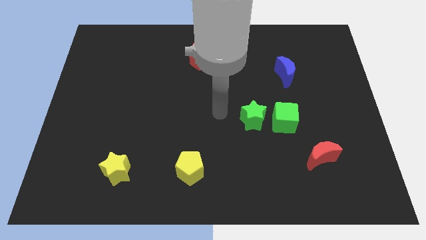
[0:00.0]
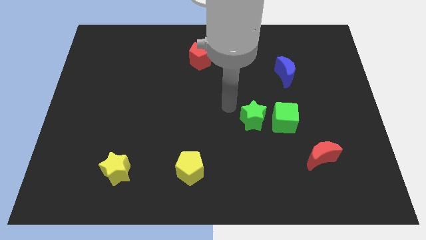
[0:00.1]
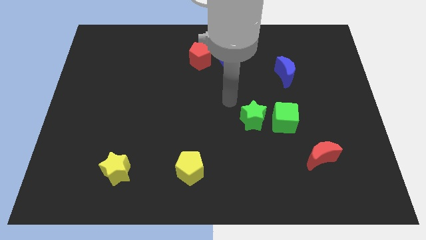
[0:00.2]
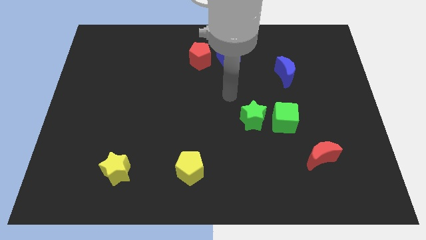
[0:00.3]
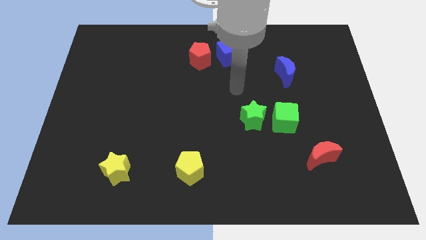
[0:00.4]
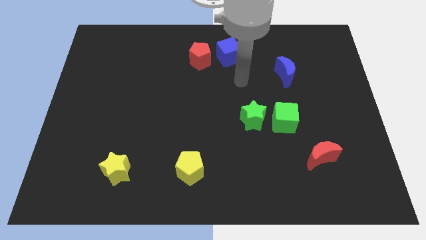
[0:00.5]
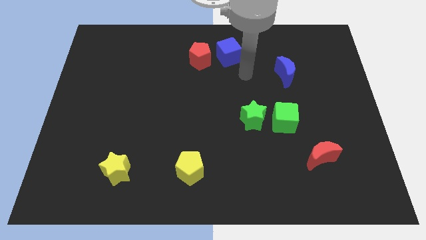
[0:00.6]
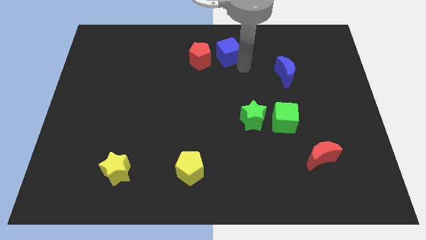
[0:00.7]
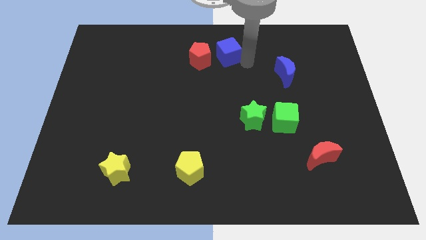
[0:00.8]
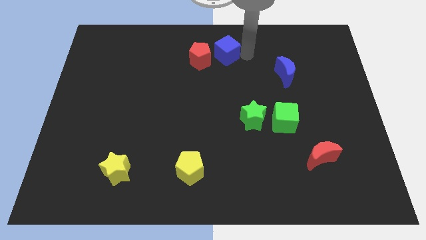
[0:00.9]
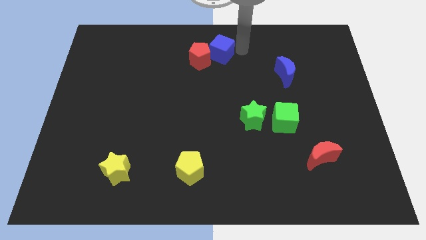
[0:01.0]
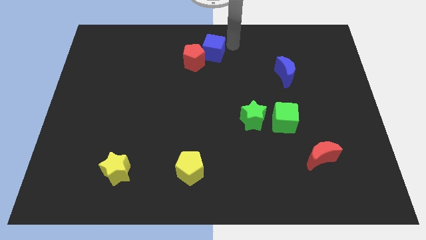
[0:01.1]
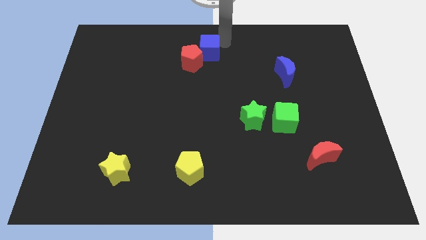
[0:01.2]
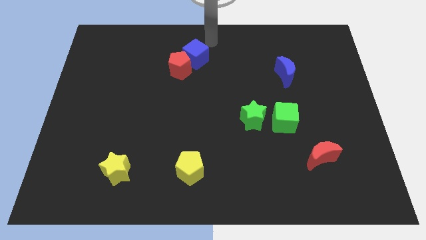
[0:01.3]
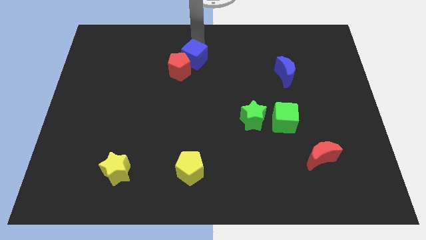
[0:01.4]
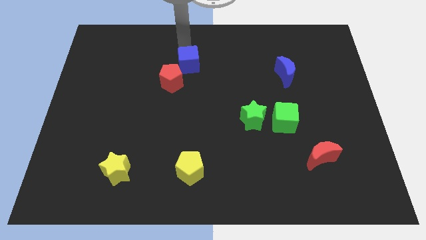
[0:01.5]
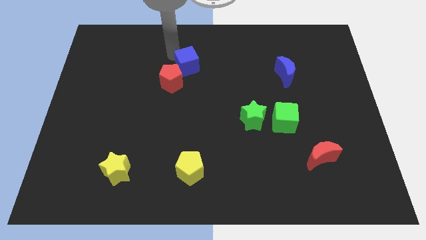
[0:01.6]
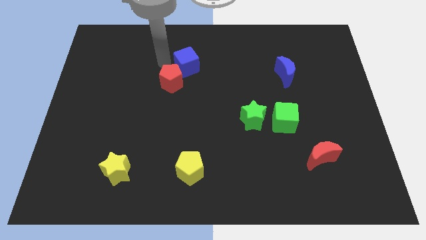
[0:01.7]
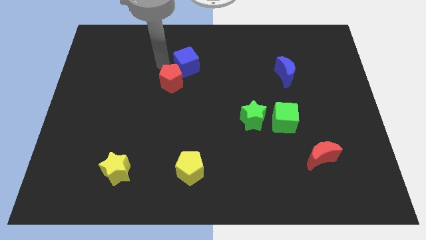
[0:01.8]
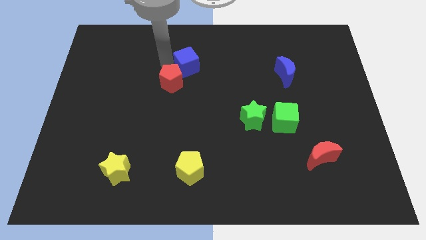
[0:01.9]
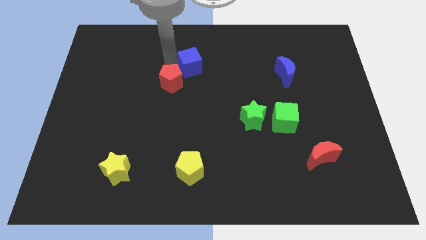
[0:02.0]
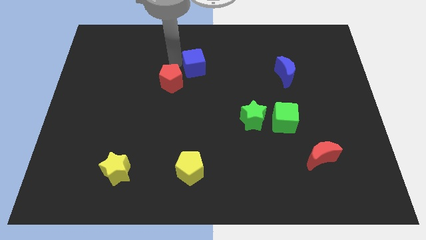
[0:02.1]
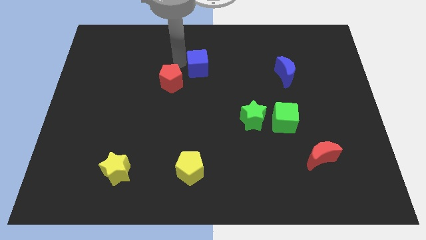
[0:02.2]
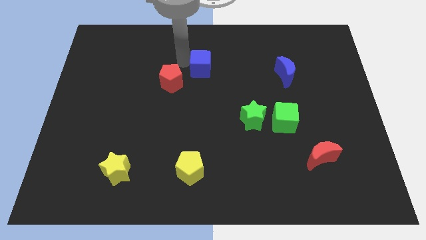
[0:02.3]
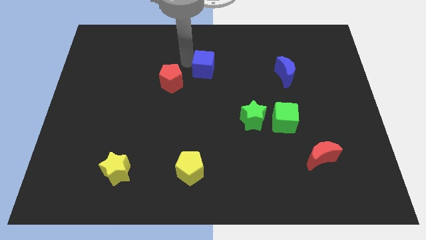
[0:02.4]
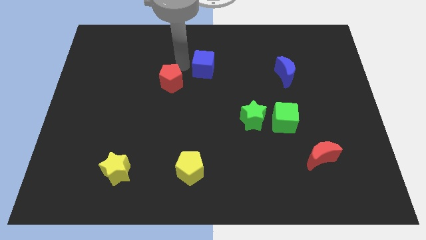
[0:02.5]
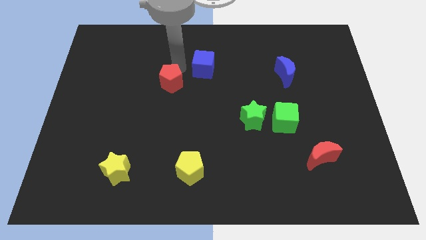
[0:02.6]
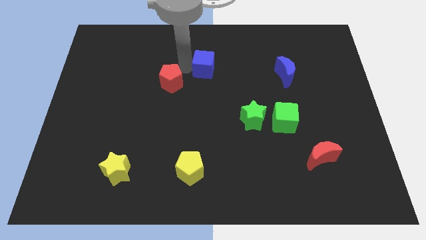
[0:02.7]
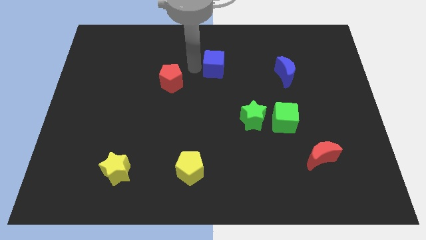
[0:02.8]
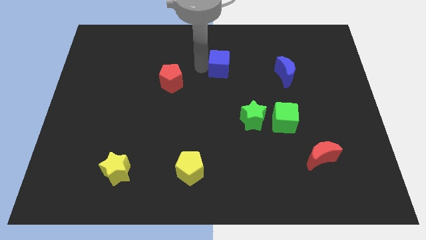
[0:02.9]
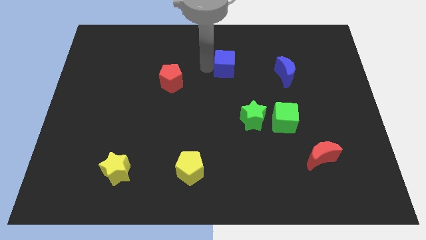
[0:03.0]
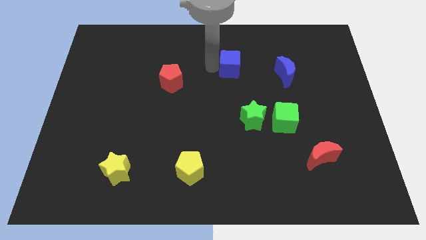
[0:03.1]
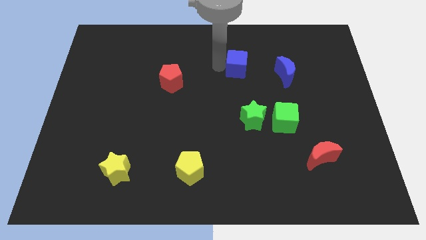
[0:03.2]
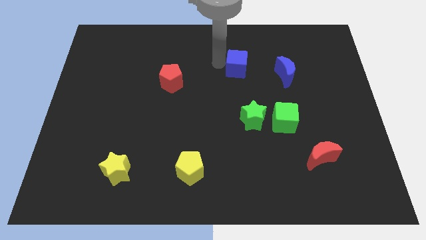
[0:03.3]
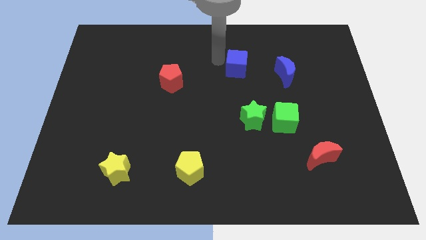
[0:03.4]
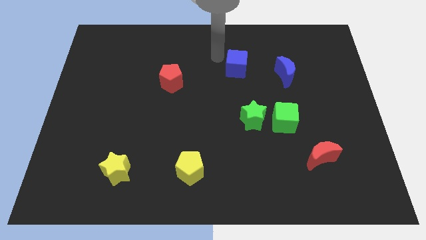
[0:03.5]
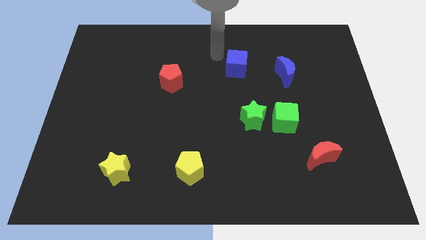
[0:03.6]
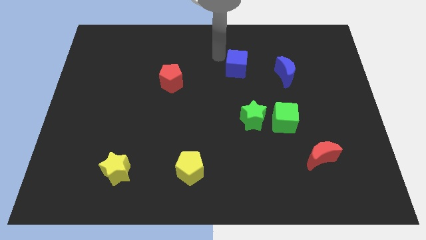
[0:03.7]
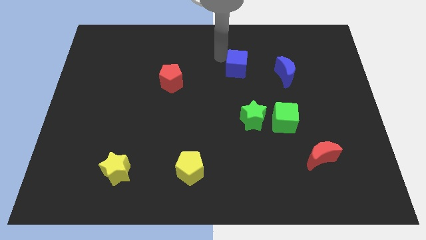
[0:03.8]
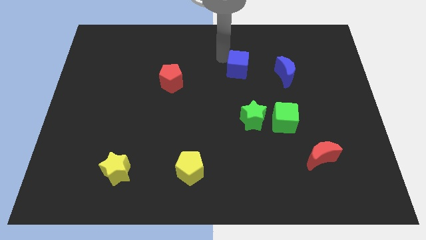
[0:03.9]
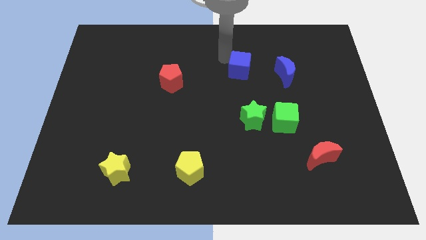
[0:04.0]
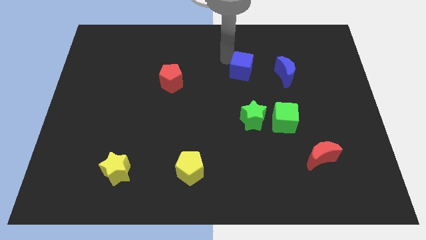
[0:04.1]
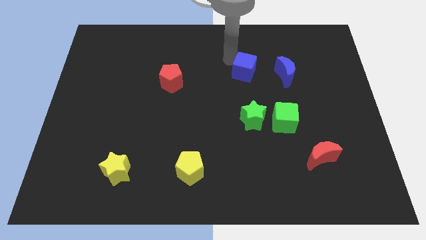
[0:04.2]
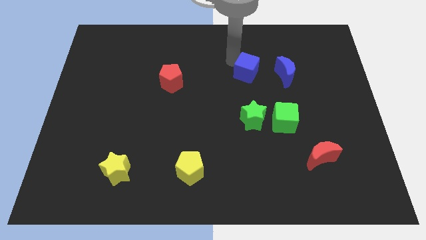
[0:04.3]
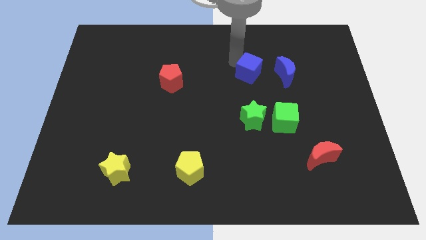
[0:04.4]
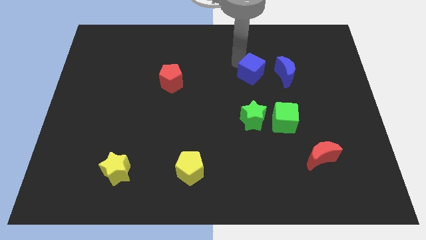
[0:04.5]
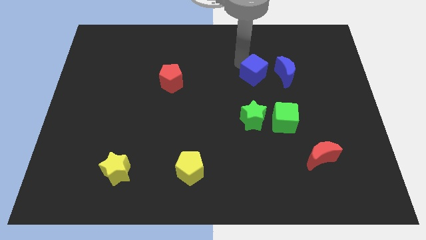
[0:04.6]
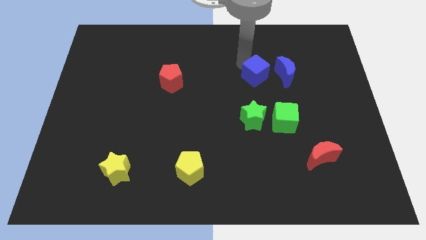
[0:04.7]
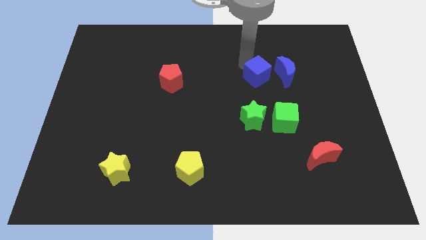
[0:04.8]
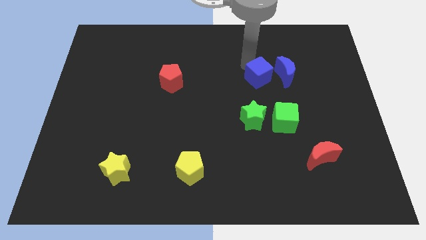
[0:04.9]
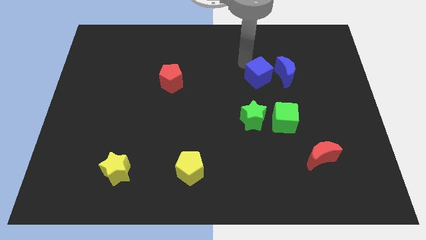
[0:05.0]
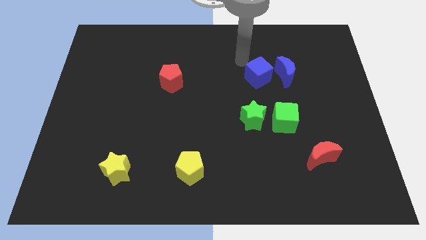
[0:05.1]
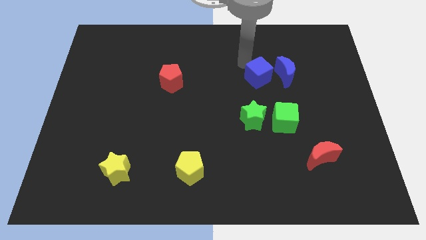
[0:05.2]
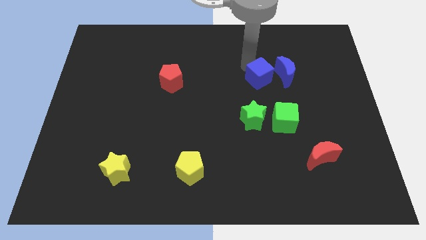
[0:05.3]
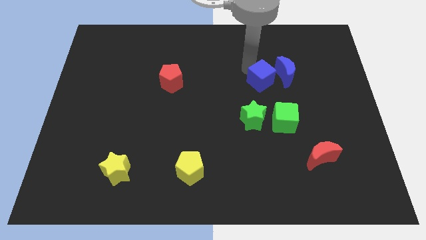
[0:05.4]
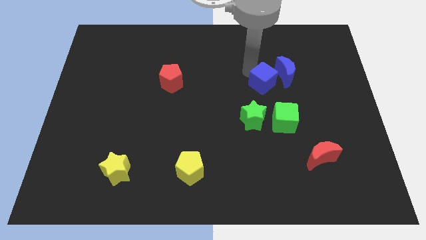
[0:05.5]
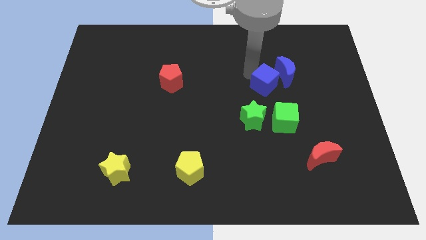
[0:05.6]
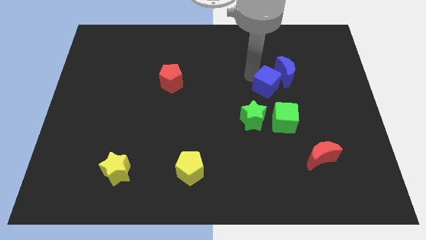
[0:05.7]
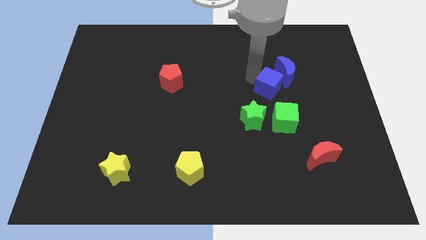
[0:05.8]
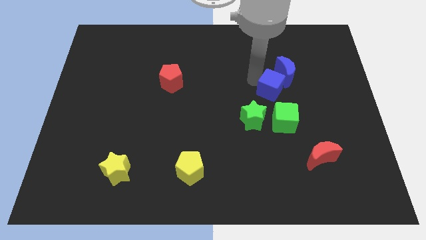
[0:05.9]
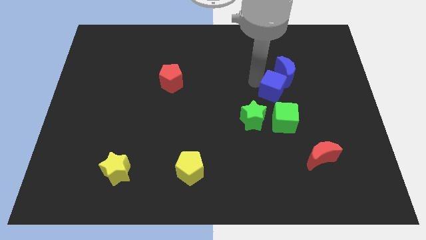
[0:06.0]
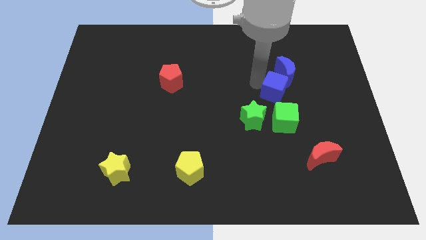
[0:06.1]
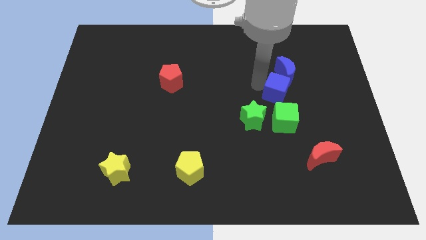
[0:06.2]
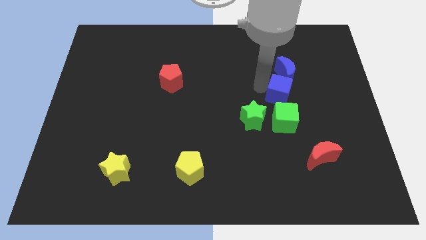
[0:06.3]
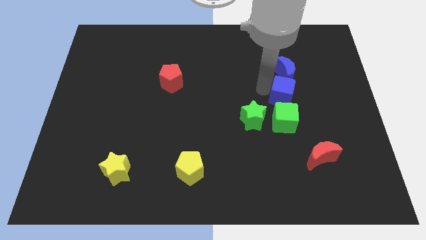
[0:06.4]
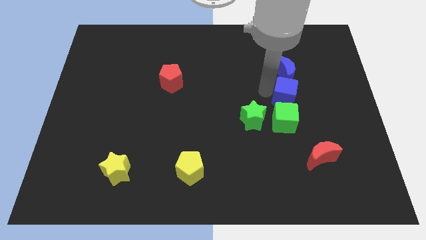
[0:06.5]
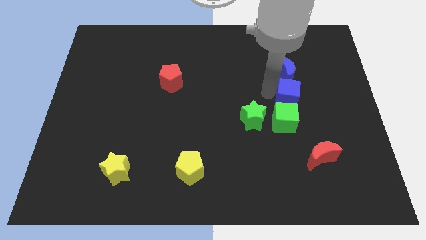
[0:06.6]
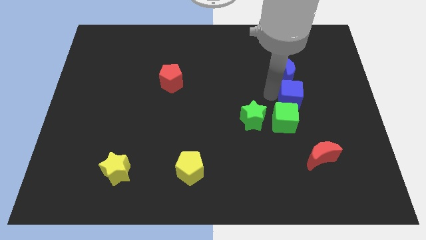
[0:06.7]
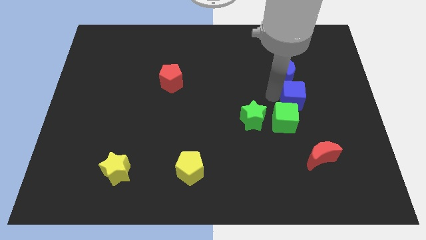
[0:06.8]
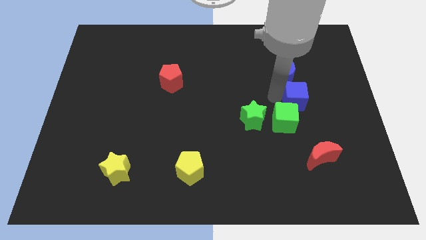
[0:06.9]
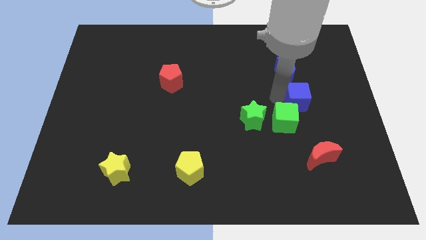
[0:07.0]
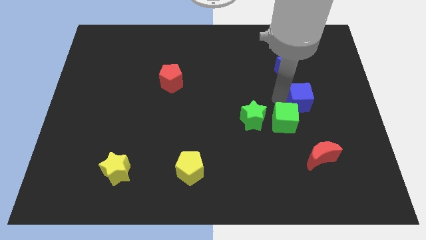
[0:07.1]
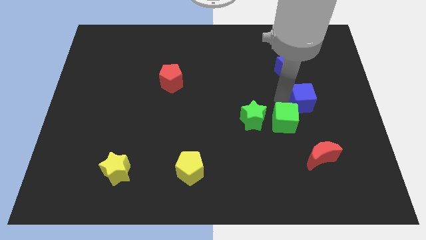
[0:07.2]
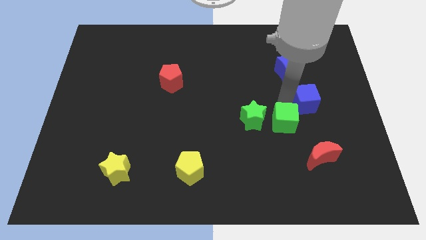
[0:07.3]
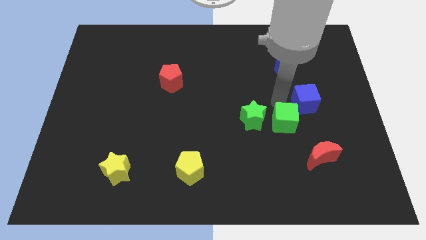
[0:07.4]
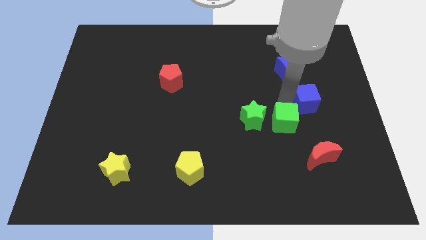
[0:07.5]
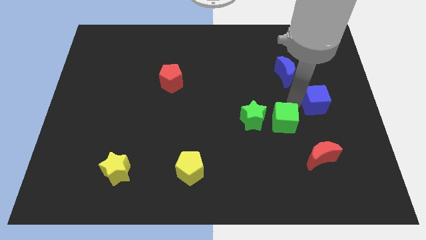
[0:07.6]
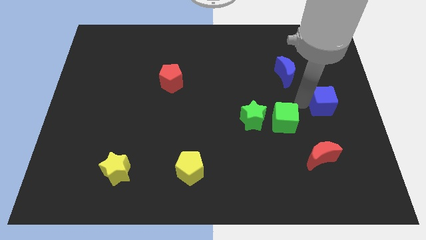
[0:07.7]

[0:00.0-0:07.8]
slide the blue cube to the right side of the board
